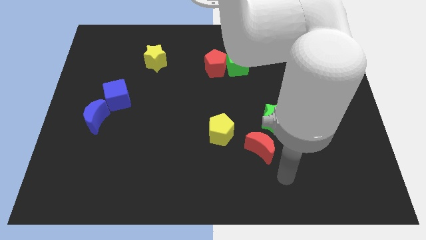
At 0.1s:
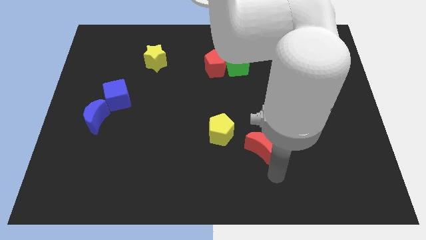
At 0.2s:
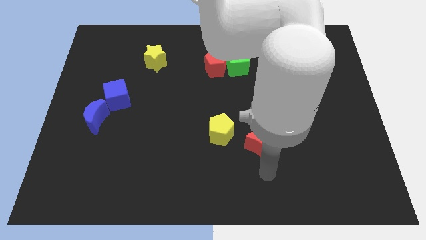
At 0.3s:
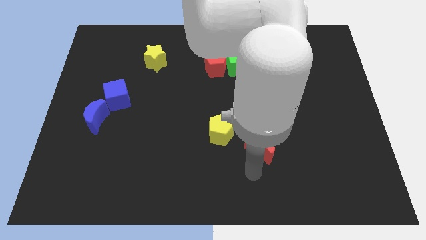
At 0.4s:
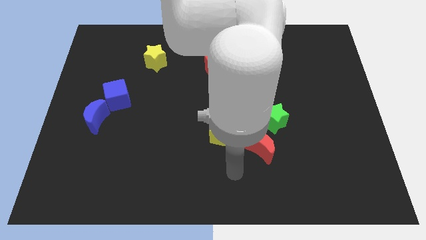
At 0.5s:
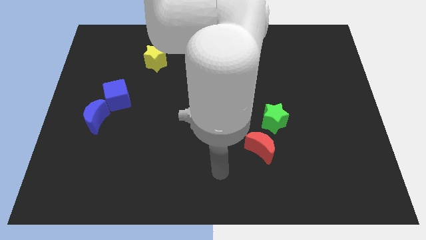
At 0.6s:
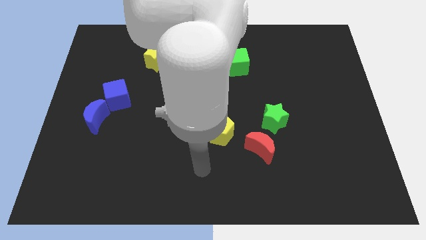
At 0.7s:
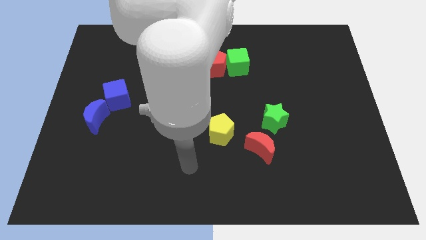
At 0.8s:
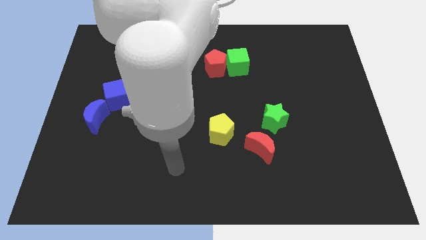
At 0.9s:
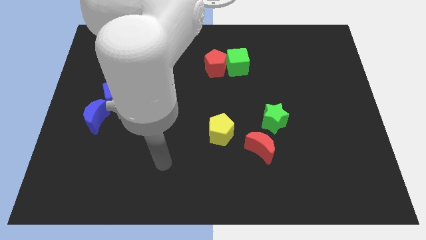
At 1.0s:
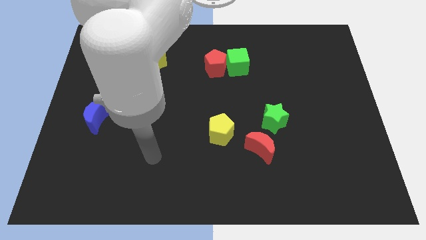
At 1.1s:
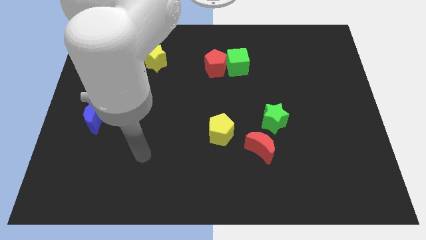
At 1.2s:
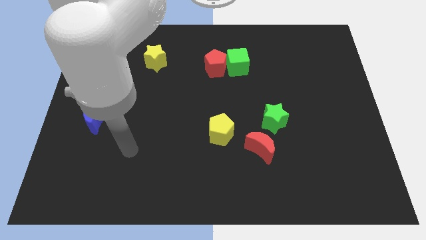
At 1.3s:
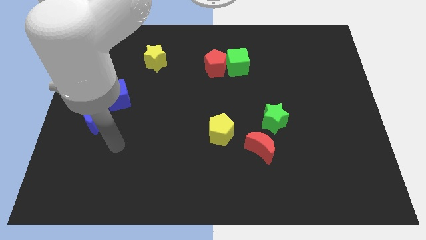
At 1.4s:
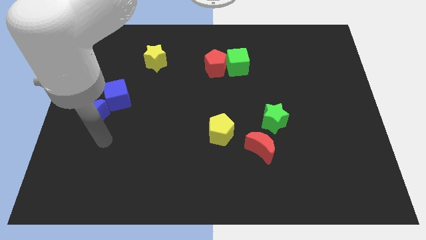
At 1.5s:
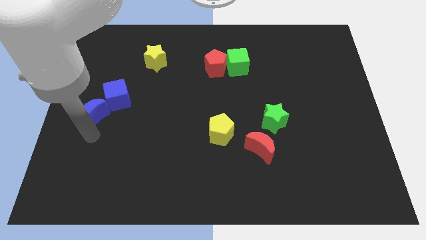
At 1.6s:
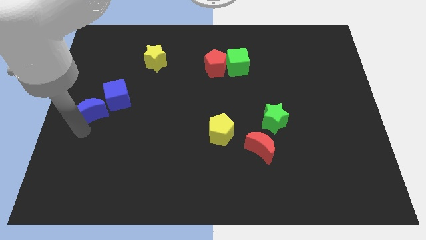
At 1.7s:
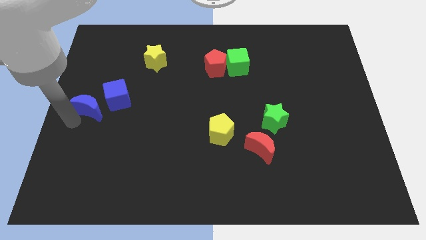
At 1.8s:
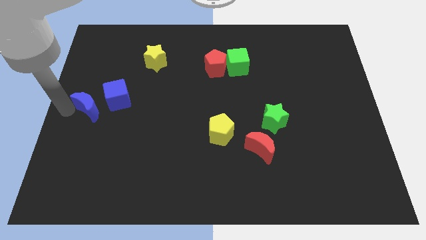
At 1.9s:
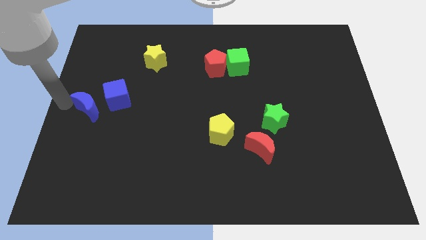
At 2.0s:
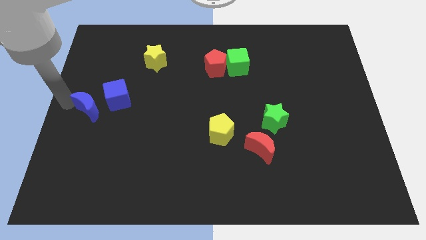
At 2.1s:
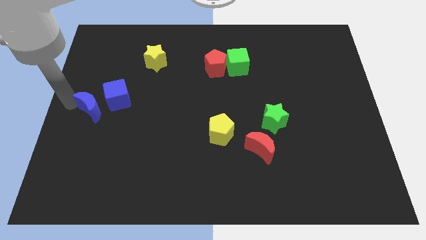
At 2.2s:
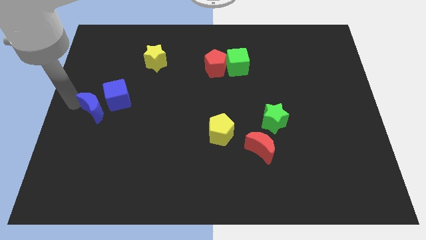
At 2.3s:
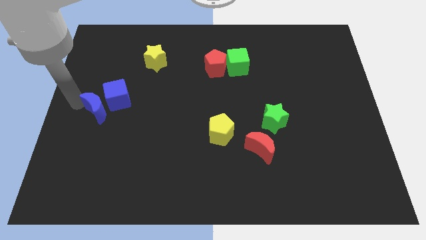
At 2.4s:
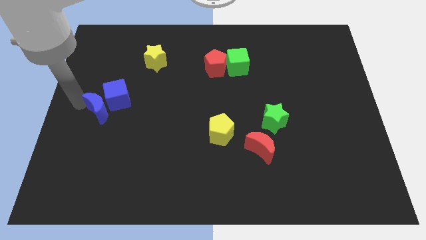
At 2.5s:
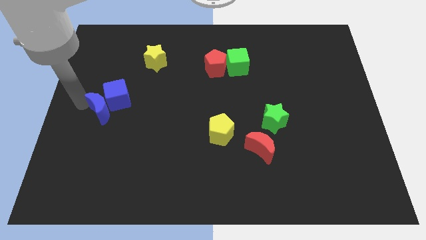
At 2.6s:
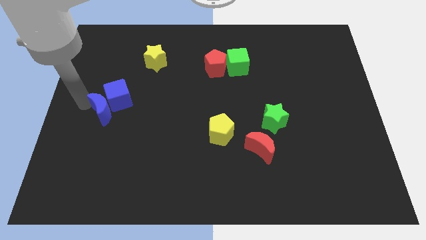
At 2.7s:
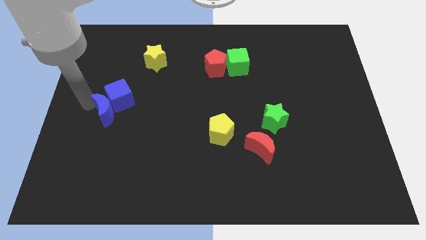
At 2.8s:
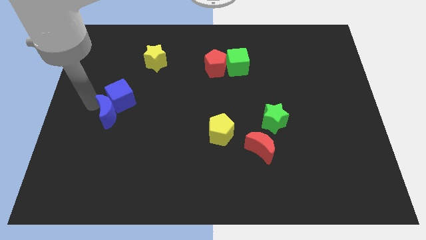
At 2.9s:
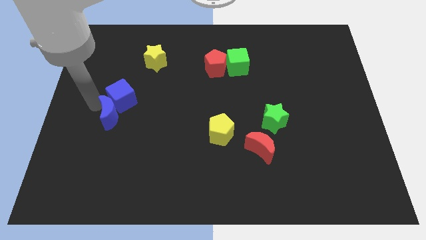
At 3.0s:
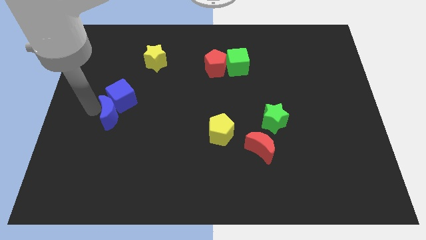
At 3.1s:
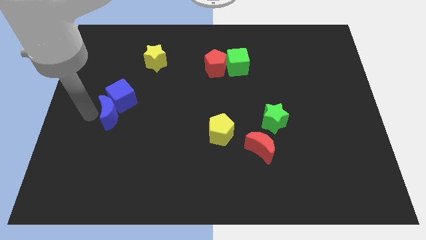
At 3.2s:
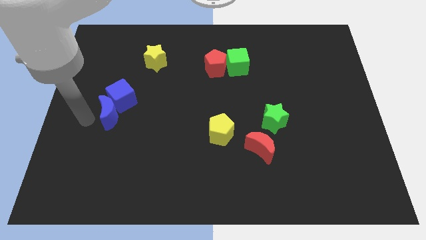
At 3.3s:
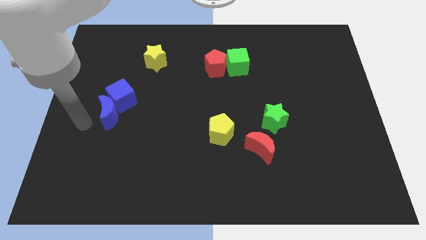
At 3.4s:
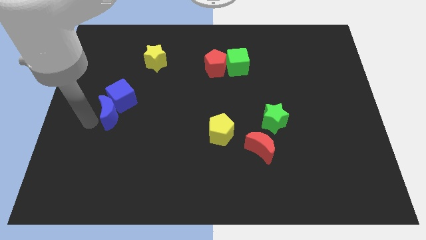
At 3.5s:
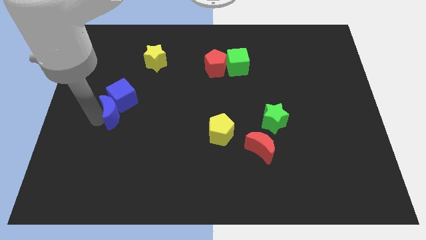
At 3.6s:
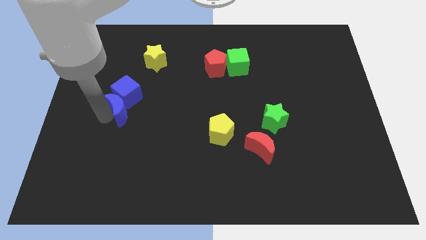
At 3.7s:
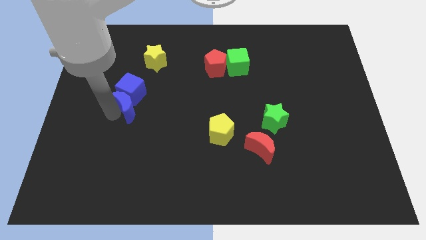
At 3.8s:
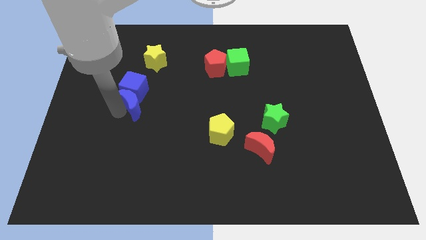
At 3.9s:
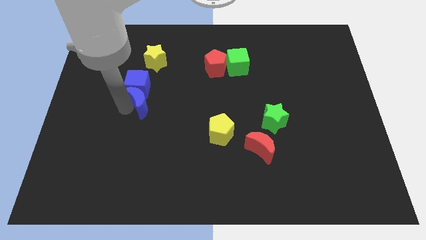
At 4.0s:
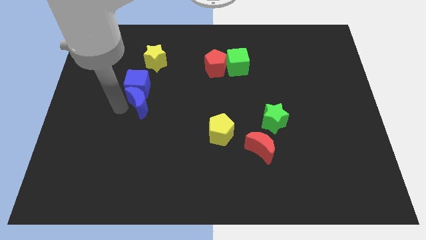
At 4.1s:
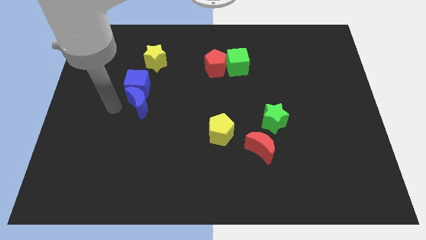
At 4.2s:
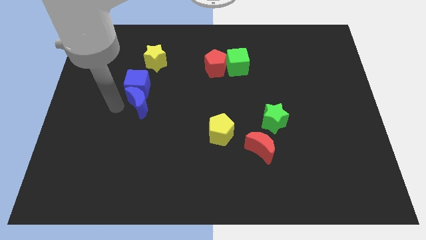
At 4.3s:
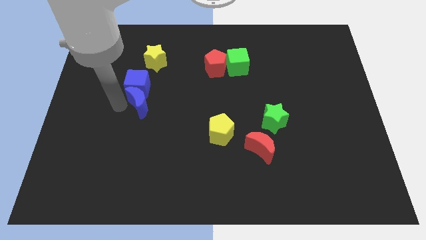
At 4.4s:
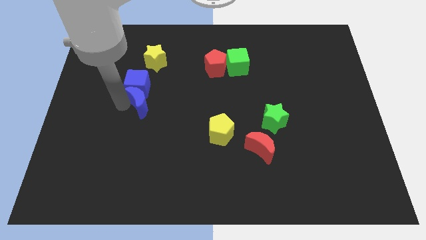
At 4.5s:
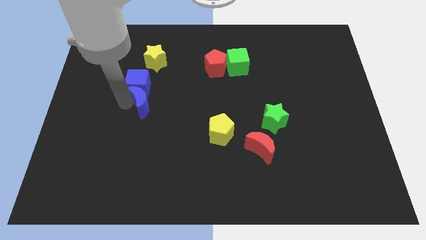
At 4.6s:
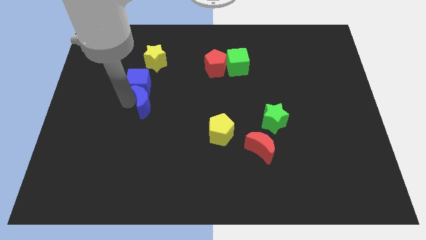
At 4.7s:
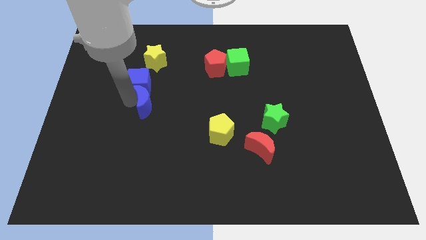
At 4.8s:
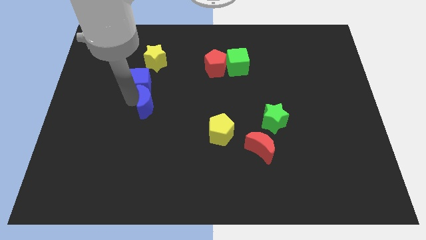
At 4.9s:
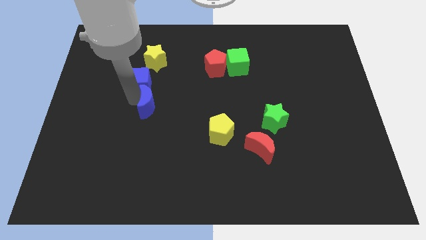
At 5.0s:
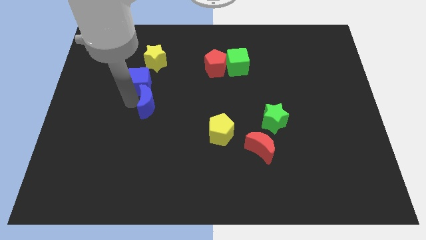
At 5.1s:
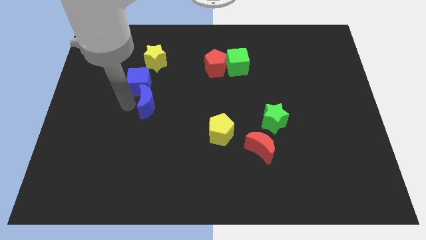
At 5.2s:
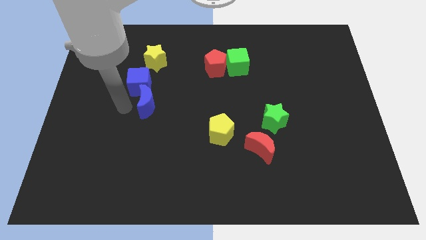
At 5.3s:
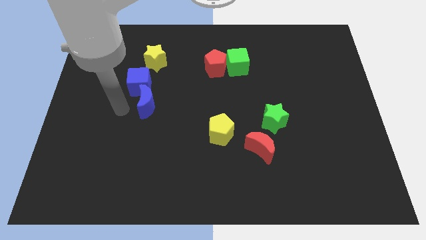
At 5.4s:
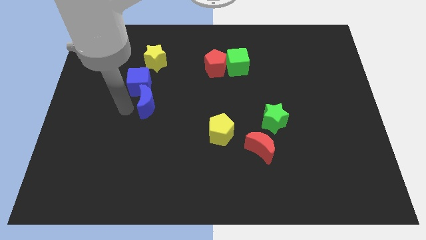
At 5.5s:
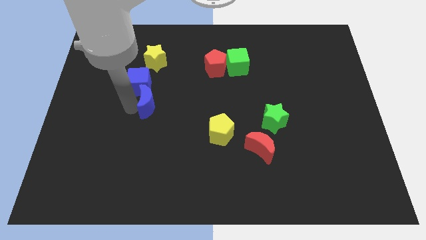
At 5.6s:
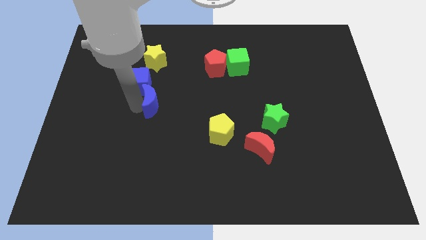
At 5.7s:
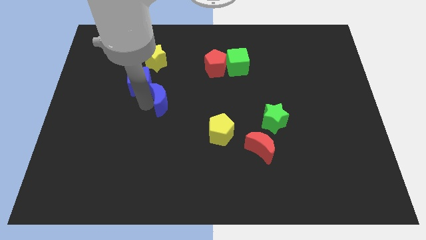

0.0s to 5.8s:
move the blue moon to the middle

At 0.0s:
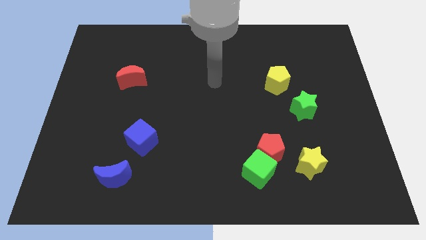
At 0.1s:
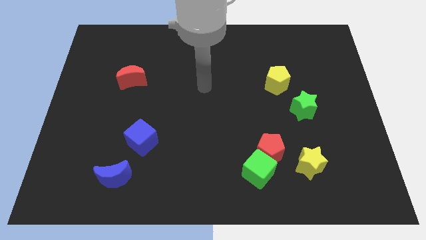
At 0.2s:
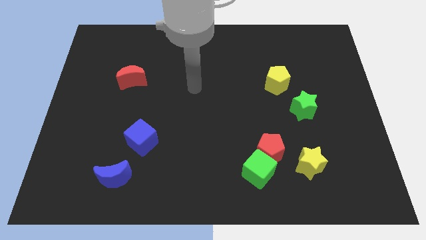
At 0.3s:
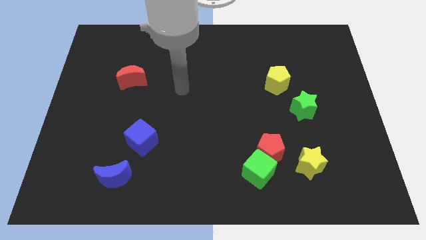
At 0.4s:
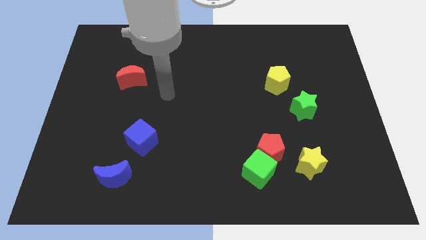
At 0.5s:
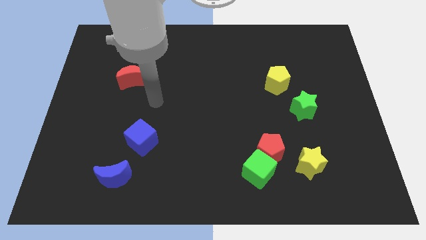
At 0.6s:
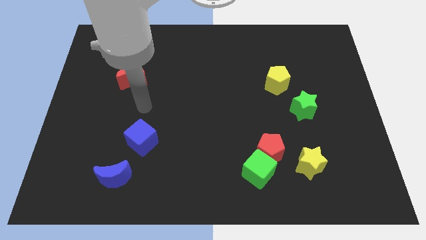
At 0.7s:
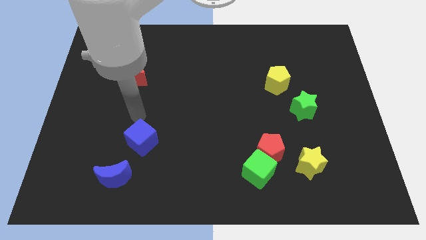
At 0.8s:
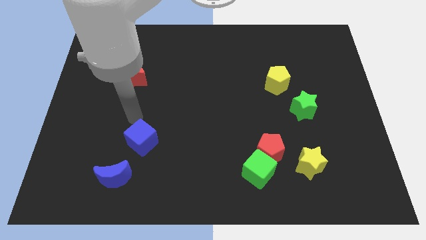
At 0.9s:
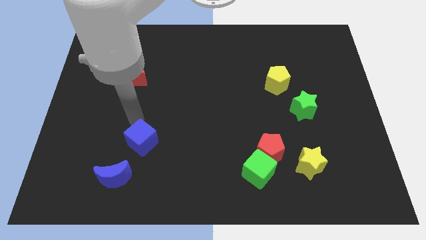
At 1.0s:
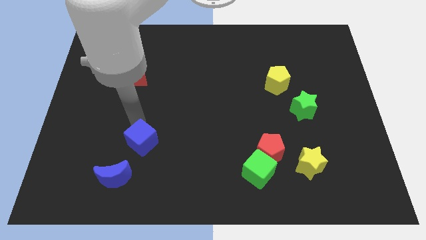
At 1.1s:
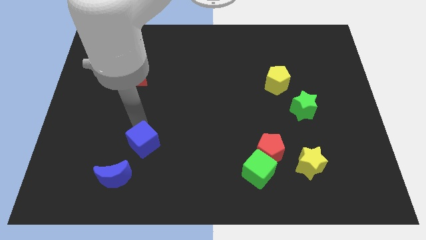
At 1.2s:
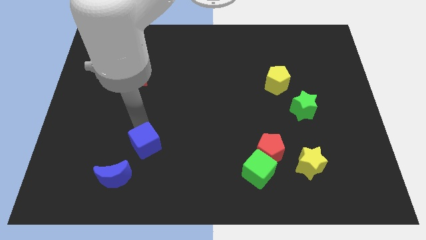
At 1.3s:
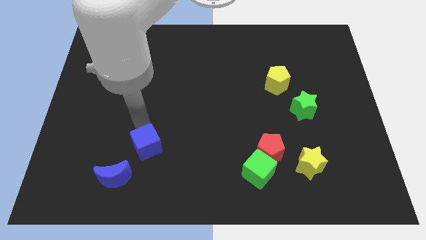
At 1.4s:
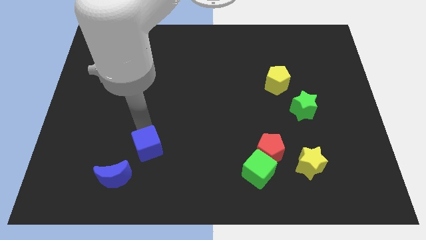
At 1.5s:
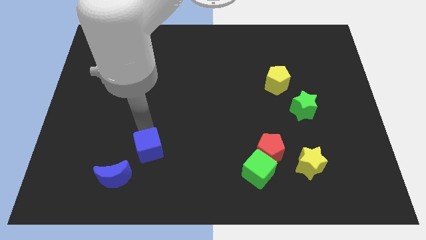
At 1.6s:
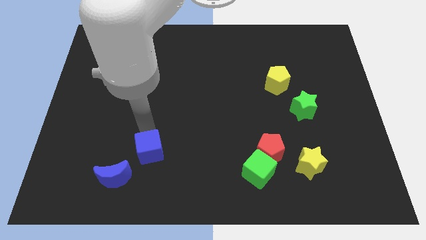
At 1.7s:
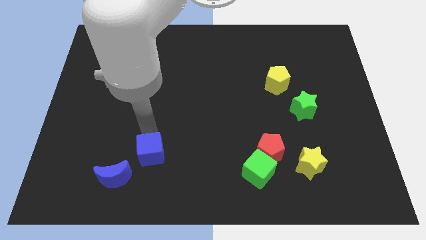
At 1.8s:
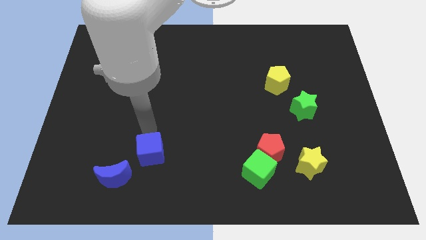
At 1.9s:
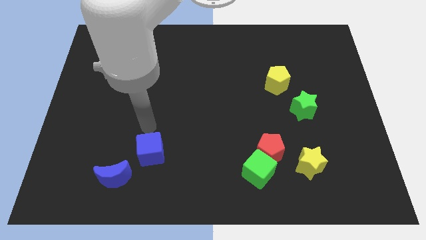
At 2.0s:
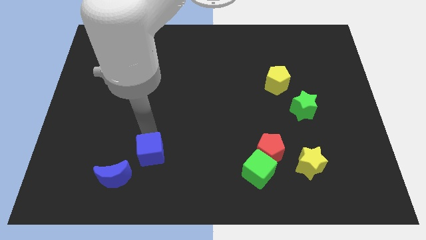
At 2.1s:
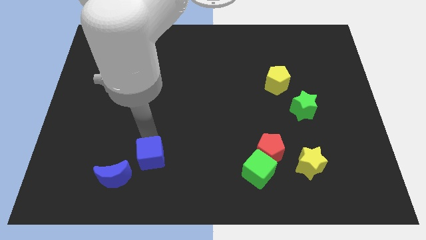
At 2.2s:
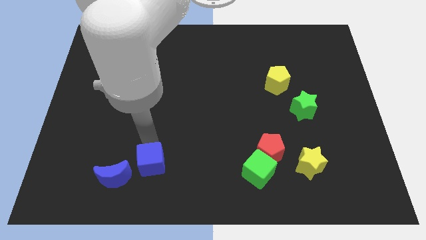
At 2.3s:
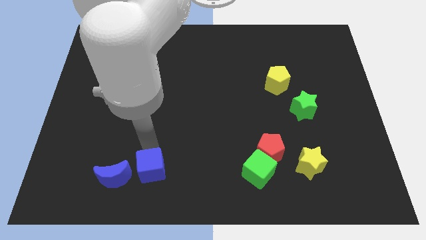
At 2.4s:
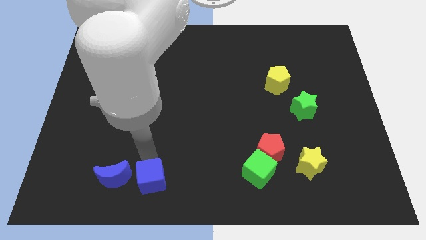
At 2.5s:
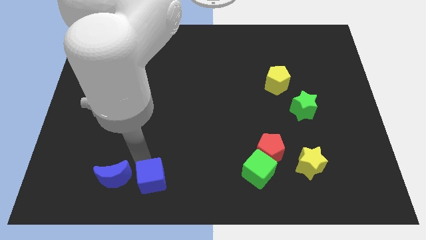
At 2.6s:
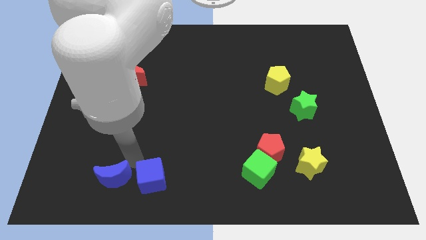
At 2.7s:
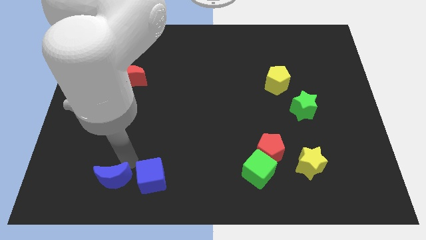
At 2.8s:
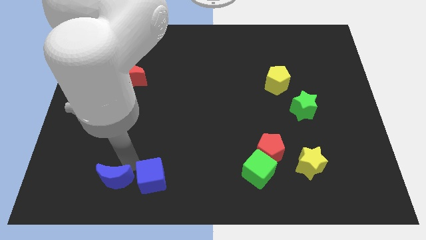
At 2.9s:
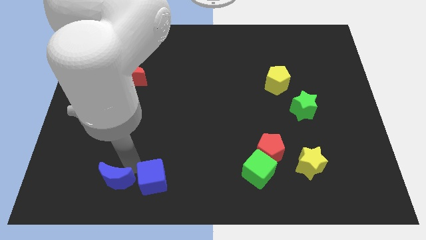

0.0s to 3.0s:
put the blue cube to the bottom side
